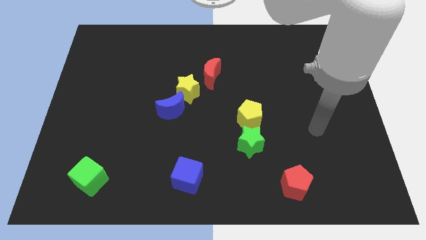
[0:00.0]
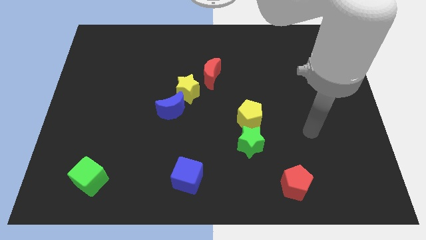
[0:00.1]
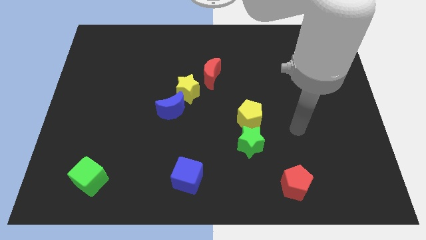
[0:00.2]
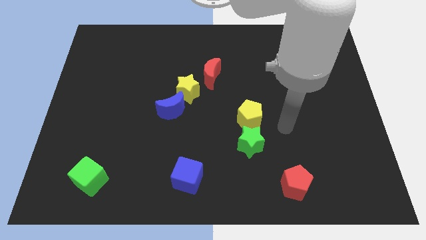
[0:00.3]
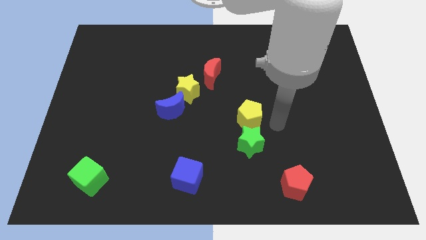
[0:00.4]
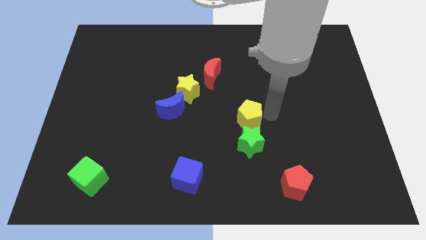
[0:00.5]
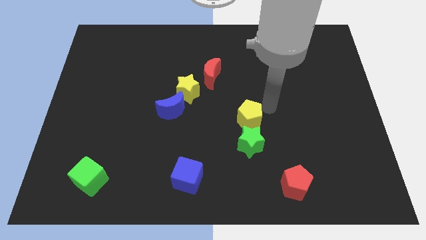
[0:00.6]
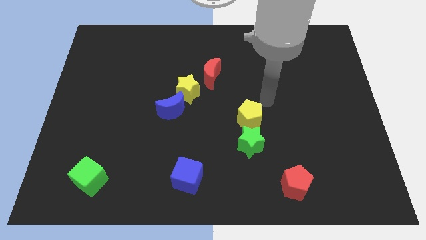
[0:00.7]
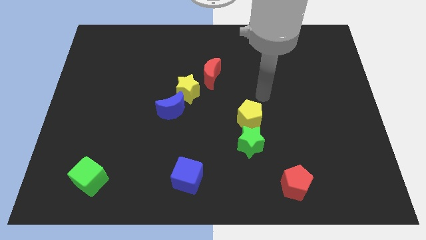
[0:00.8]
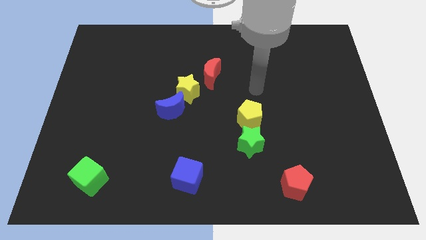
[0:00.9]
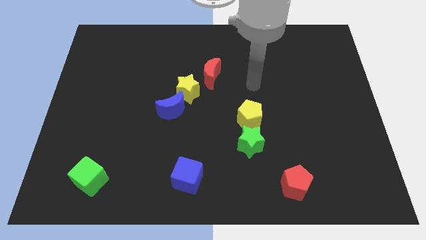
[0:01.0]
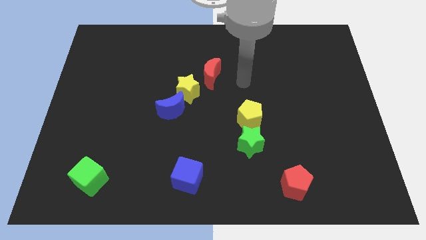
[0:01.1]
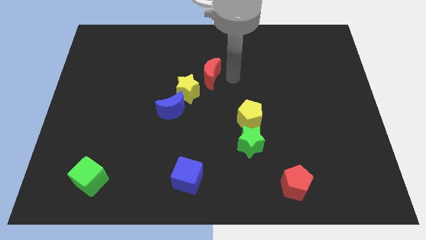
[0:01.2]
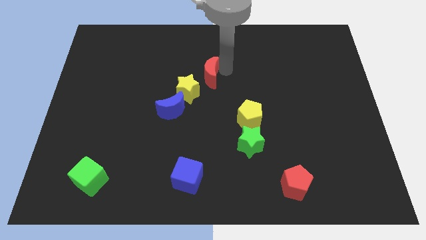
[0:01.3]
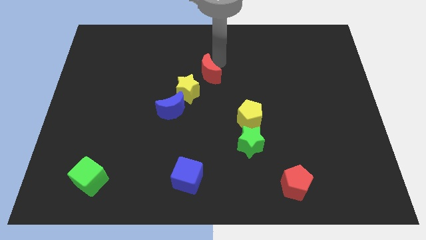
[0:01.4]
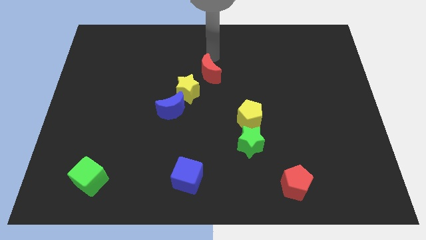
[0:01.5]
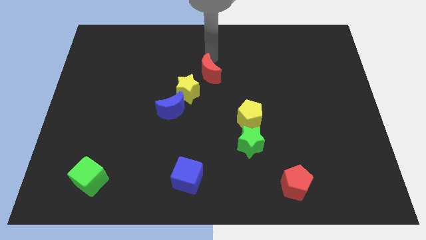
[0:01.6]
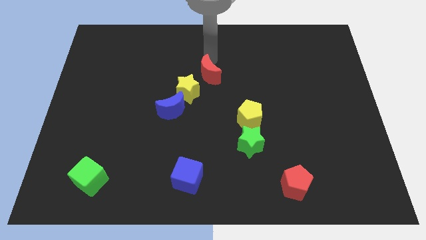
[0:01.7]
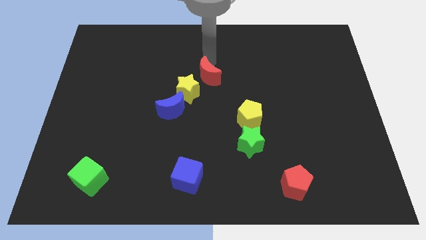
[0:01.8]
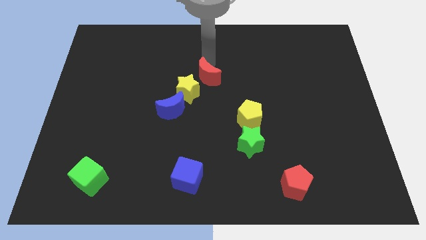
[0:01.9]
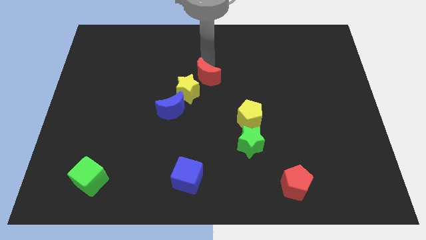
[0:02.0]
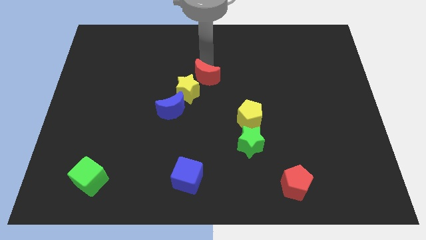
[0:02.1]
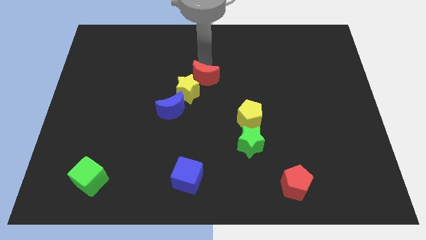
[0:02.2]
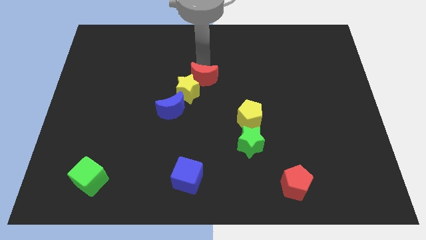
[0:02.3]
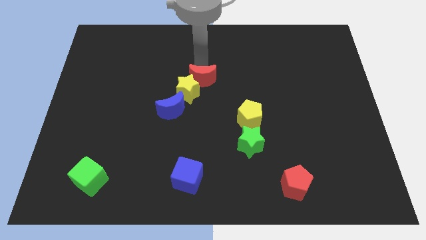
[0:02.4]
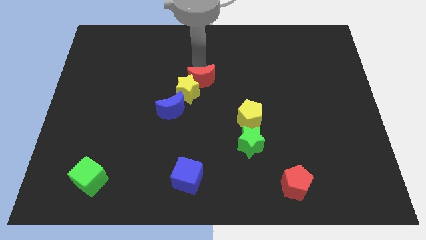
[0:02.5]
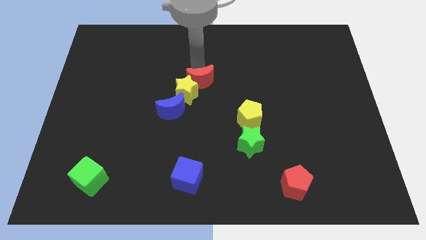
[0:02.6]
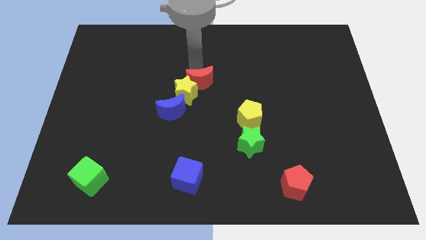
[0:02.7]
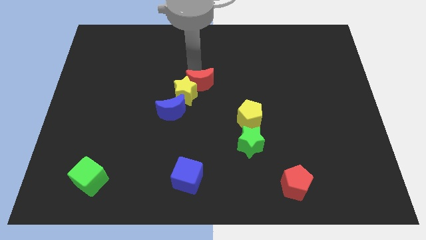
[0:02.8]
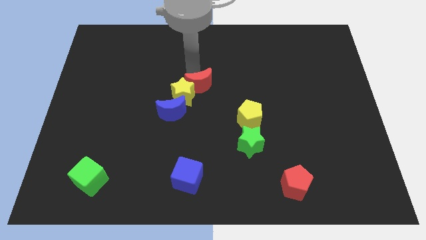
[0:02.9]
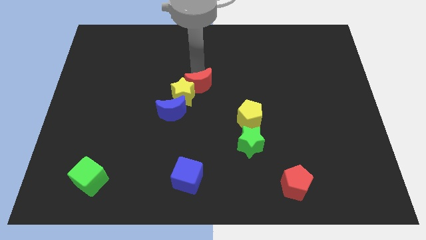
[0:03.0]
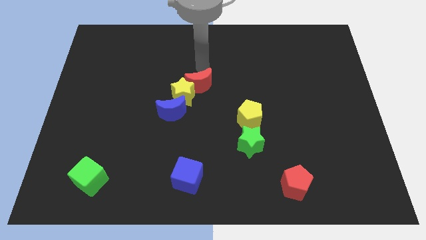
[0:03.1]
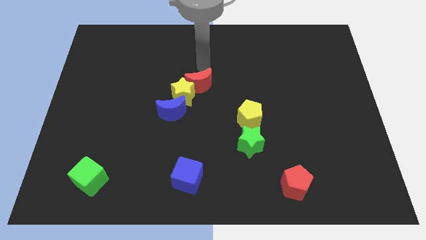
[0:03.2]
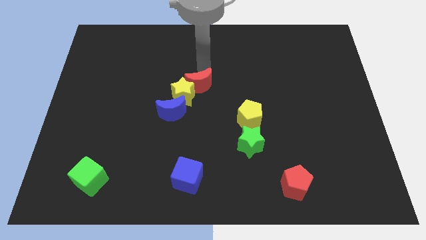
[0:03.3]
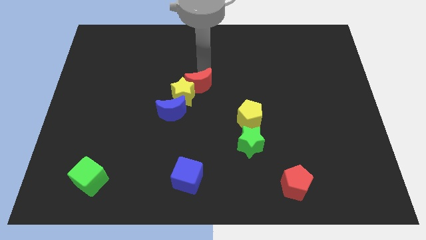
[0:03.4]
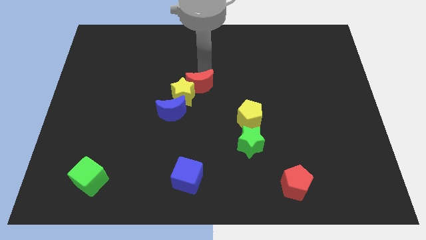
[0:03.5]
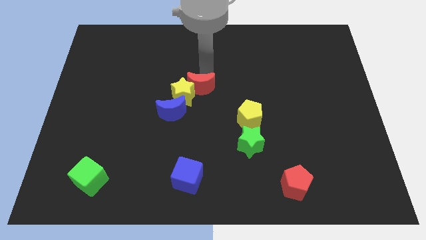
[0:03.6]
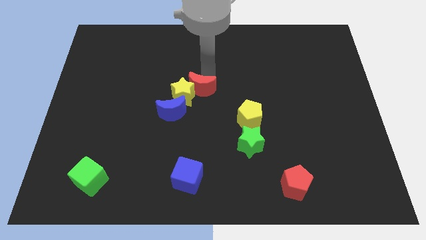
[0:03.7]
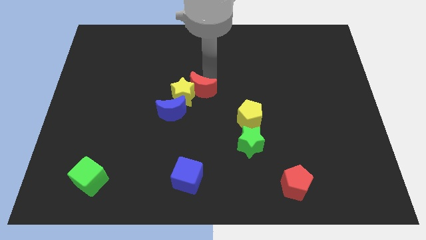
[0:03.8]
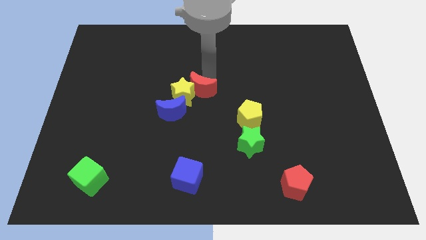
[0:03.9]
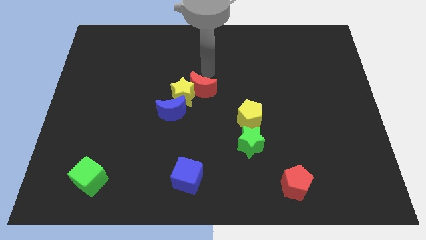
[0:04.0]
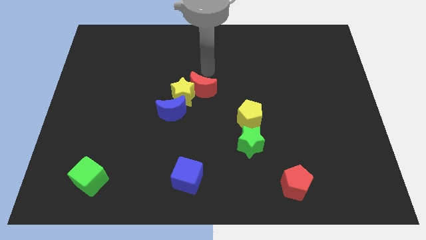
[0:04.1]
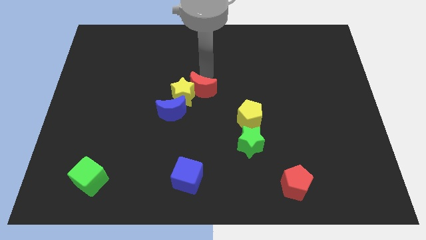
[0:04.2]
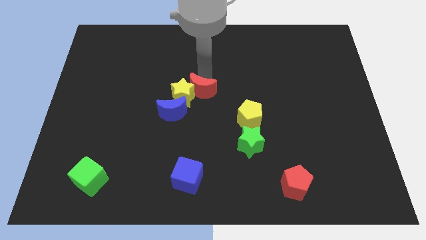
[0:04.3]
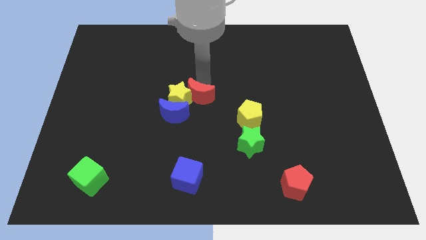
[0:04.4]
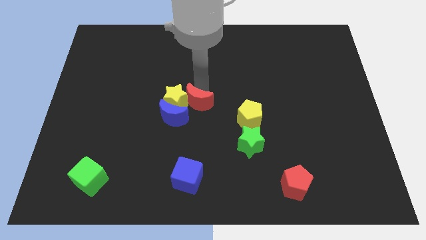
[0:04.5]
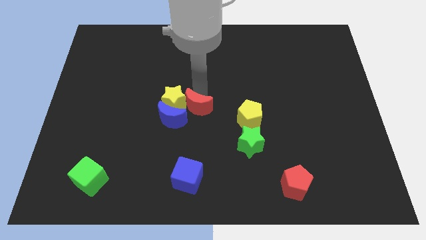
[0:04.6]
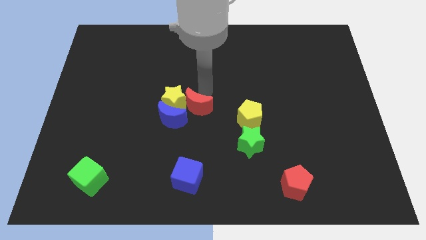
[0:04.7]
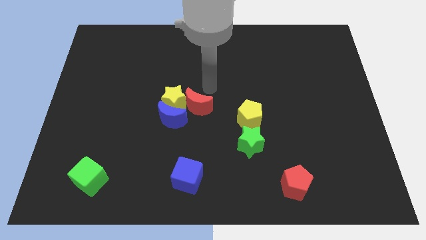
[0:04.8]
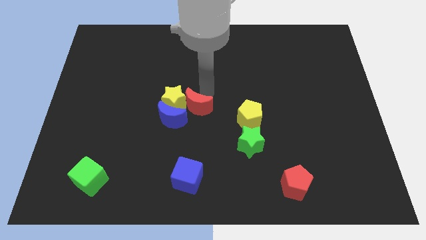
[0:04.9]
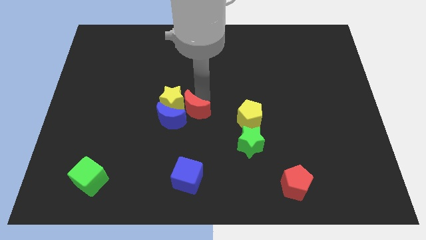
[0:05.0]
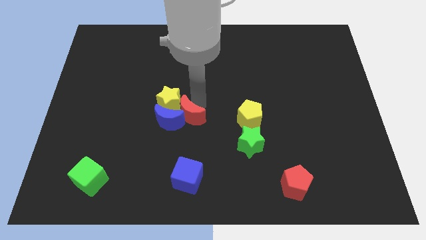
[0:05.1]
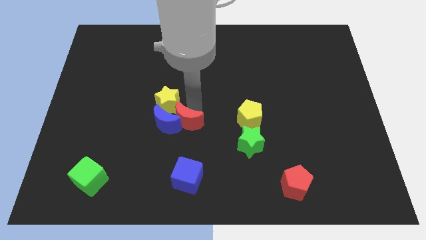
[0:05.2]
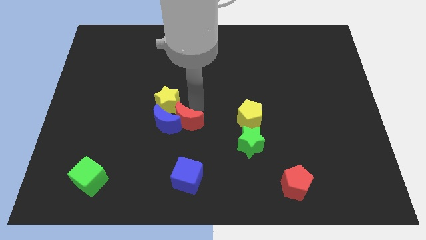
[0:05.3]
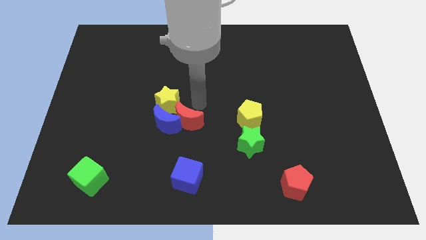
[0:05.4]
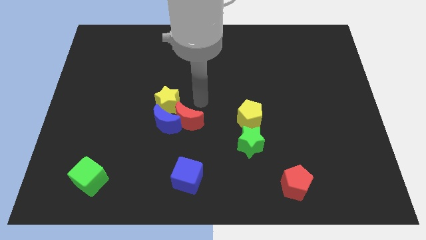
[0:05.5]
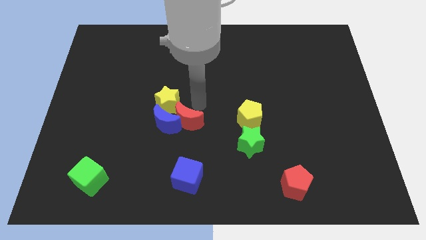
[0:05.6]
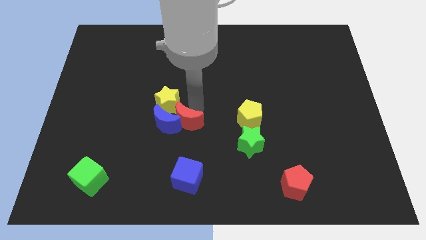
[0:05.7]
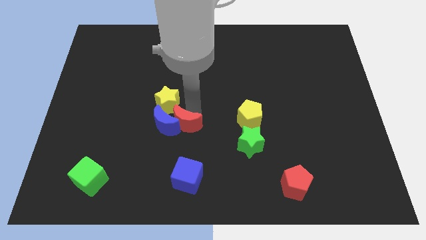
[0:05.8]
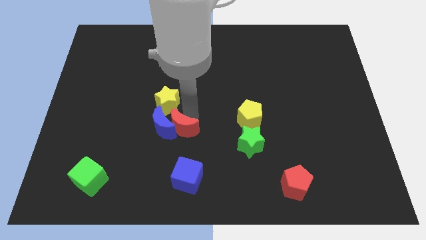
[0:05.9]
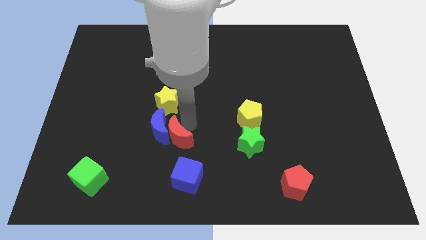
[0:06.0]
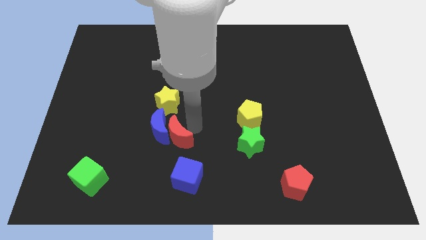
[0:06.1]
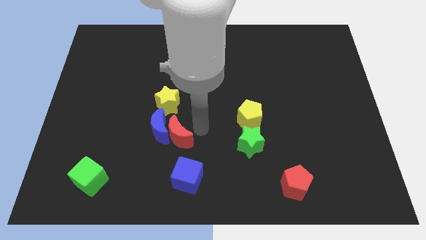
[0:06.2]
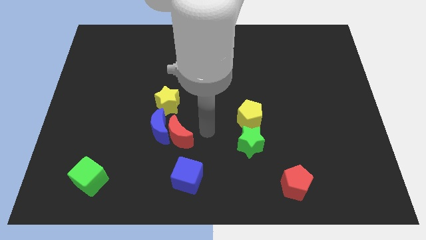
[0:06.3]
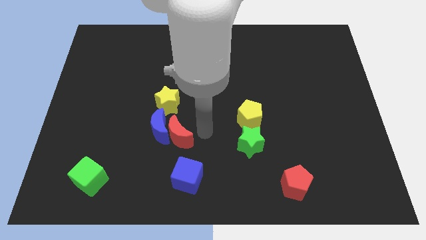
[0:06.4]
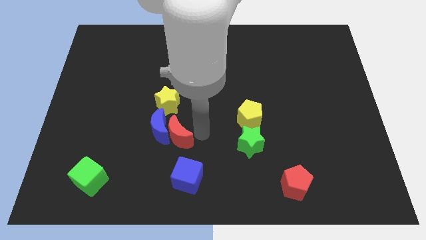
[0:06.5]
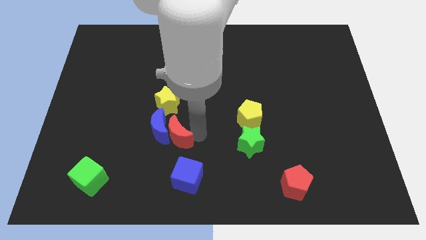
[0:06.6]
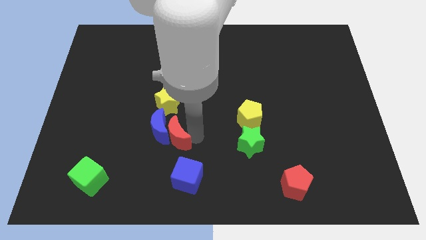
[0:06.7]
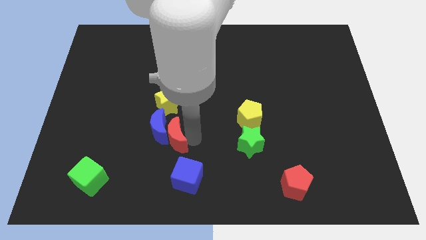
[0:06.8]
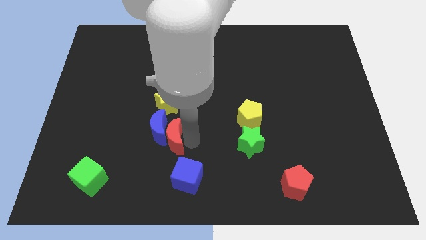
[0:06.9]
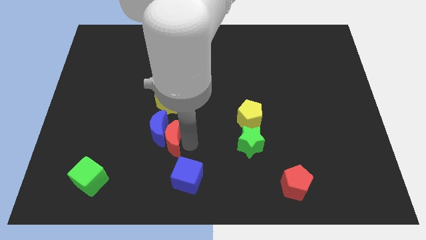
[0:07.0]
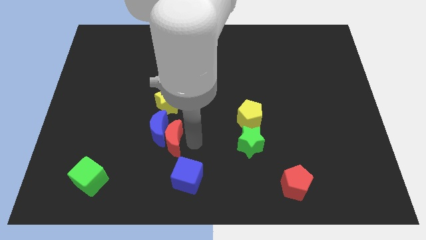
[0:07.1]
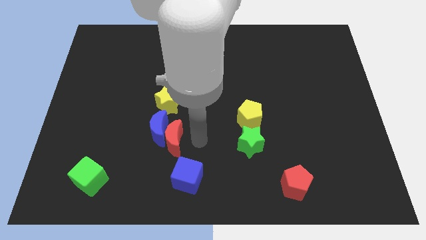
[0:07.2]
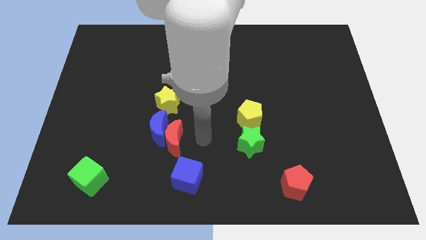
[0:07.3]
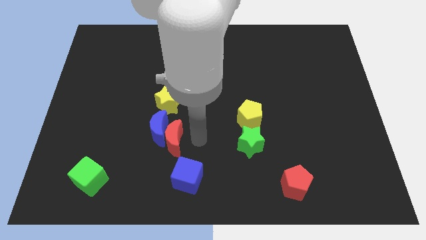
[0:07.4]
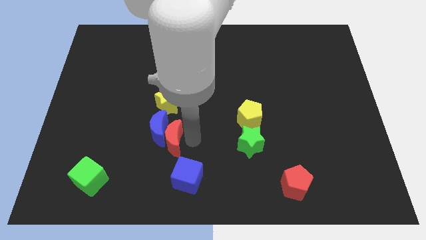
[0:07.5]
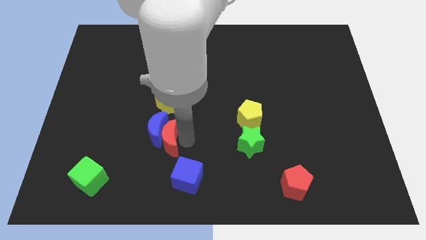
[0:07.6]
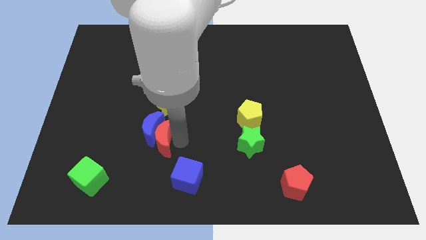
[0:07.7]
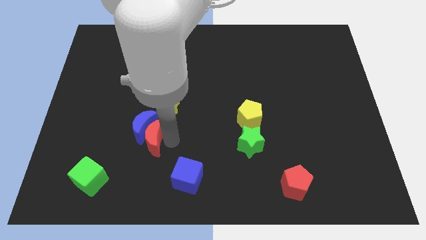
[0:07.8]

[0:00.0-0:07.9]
push the red moon downwards and then left
